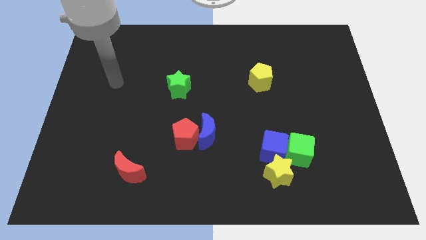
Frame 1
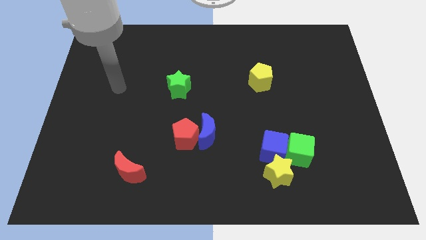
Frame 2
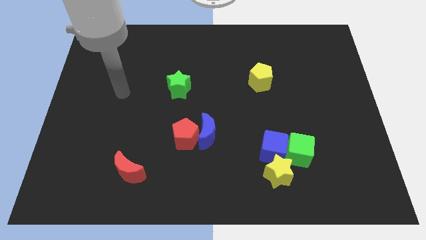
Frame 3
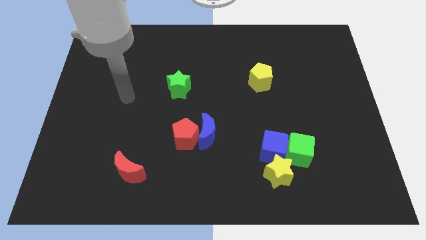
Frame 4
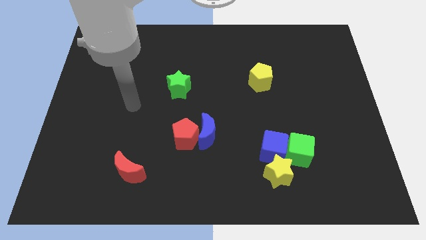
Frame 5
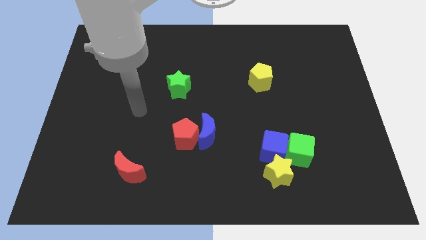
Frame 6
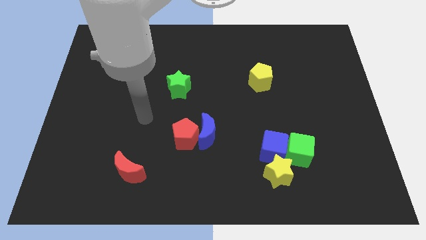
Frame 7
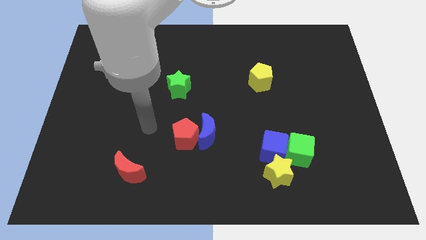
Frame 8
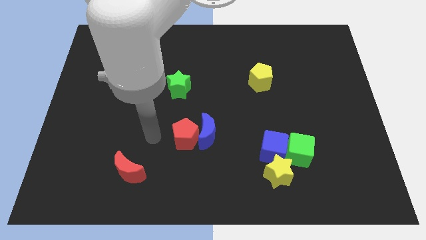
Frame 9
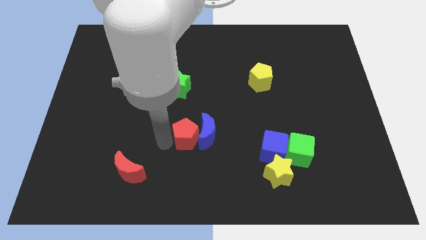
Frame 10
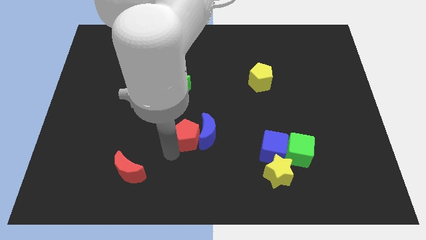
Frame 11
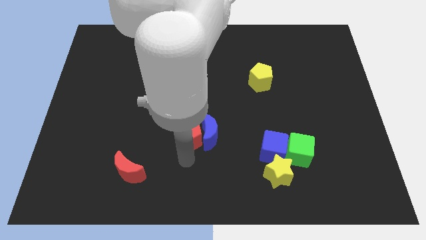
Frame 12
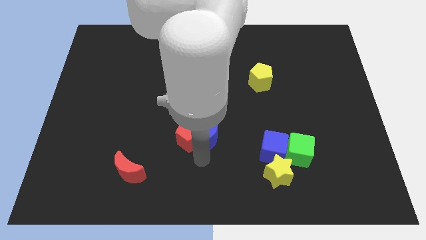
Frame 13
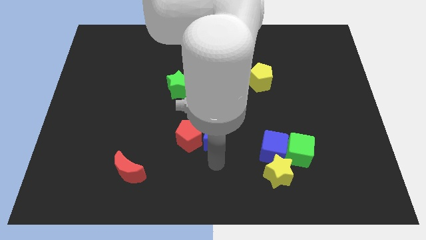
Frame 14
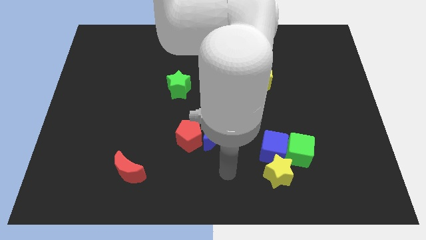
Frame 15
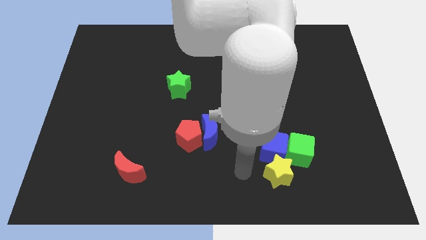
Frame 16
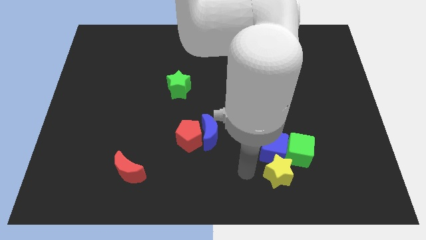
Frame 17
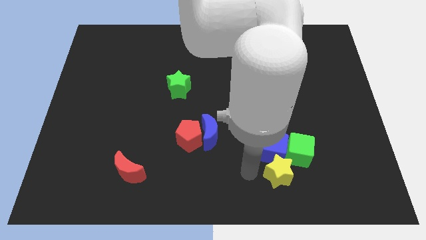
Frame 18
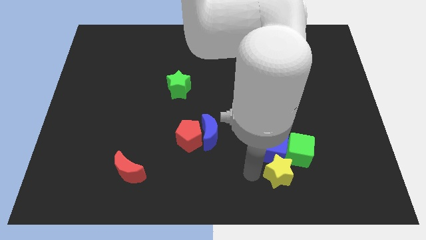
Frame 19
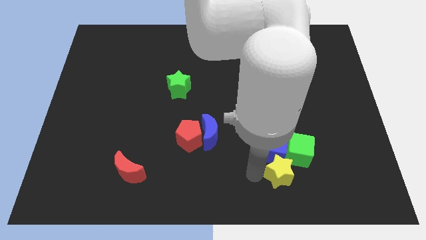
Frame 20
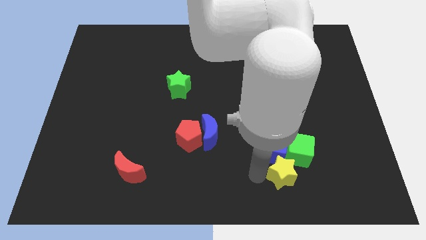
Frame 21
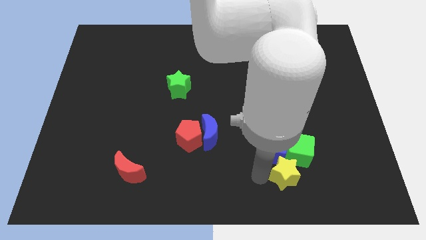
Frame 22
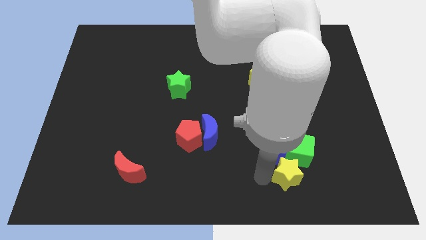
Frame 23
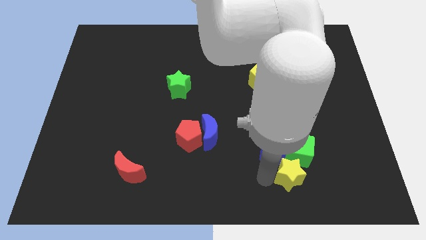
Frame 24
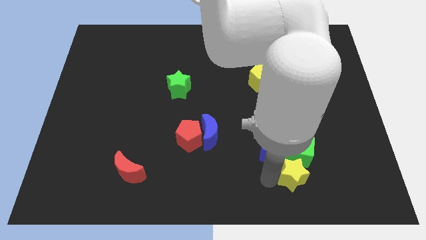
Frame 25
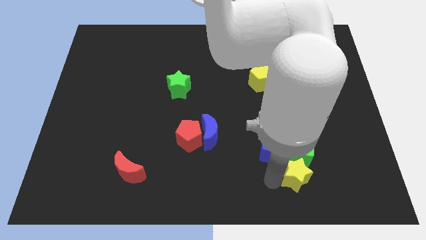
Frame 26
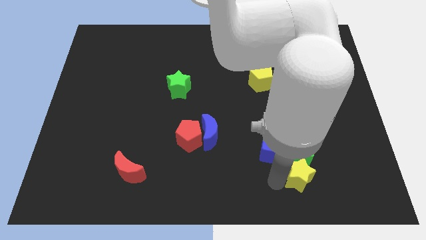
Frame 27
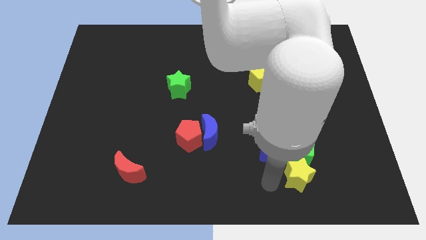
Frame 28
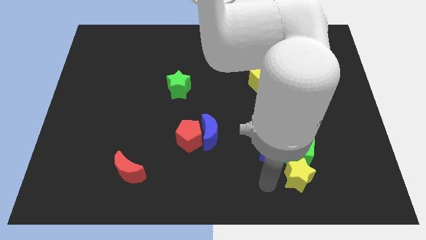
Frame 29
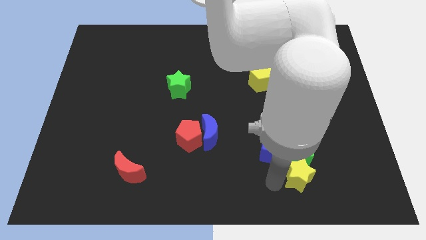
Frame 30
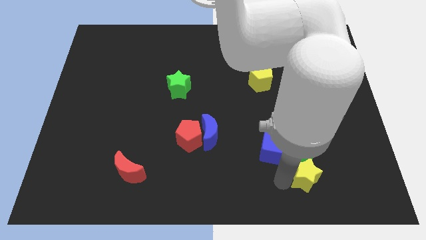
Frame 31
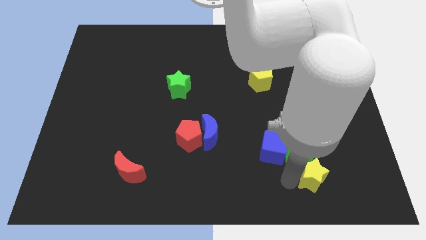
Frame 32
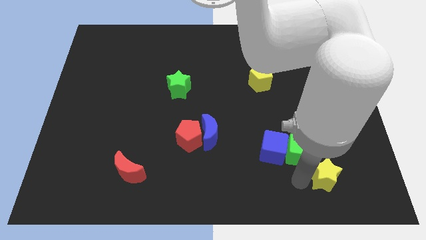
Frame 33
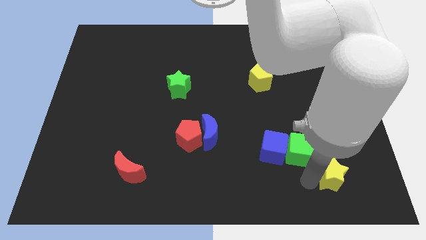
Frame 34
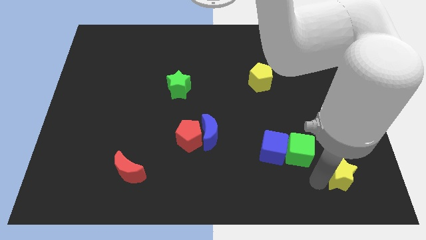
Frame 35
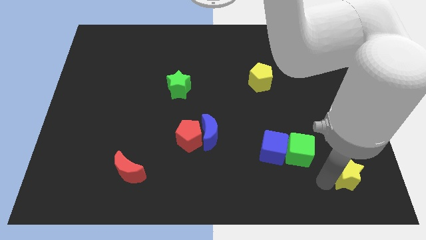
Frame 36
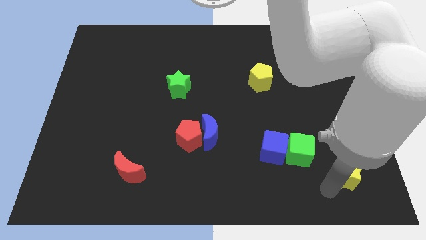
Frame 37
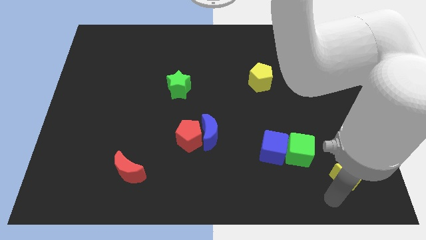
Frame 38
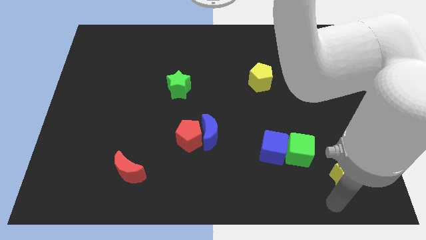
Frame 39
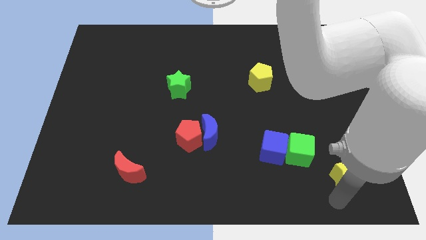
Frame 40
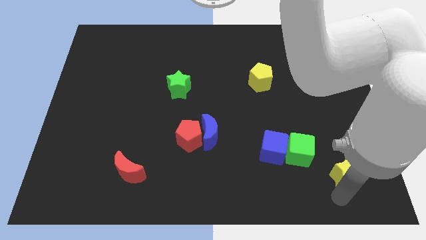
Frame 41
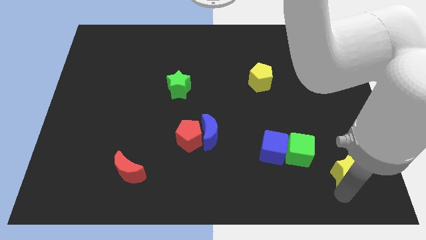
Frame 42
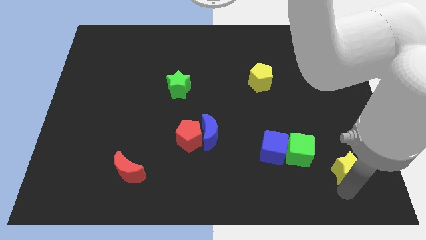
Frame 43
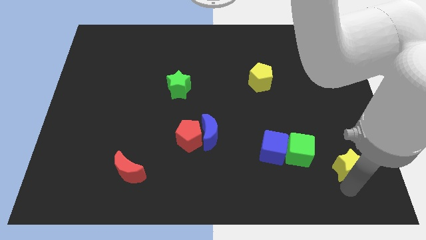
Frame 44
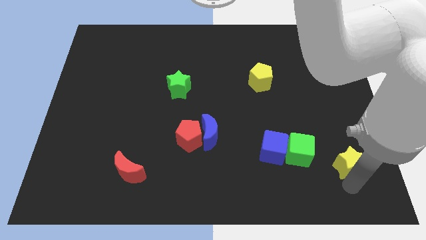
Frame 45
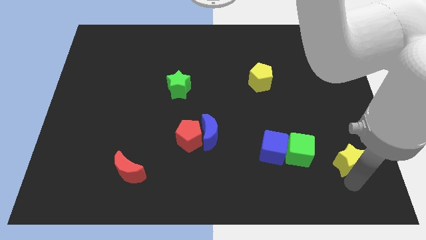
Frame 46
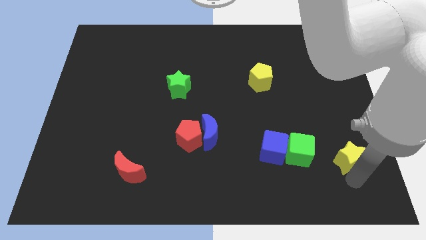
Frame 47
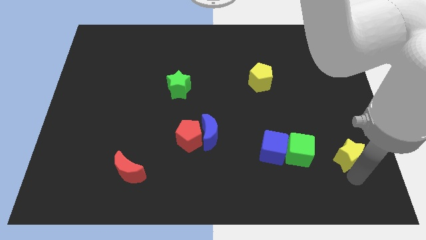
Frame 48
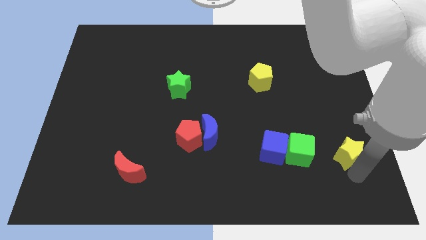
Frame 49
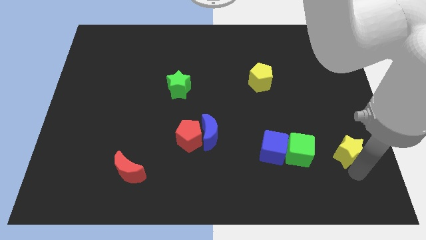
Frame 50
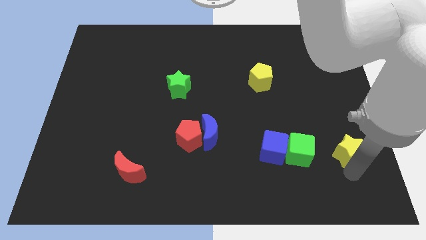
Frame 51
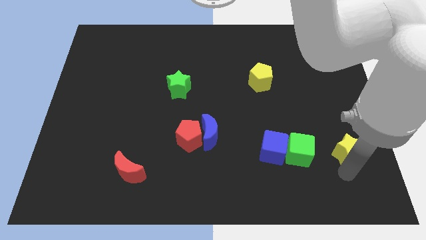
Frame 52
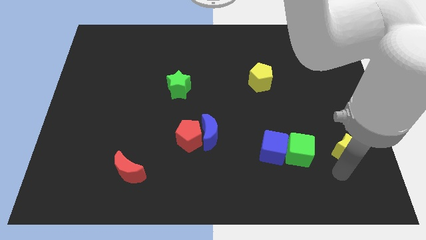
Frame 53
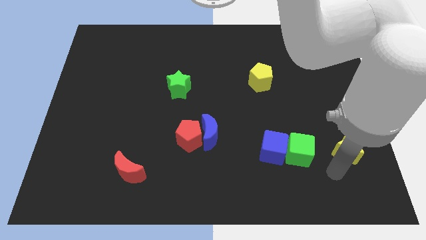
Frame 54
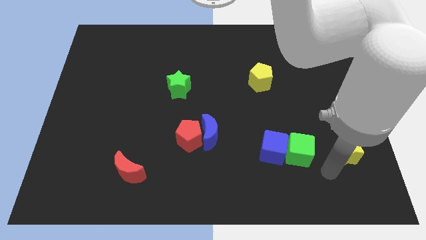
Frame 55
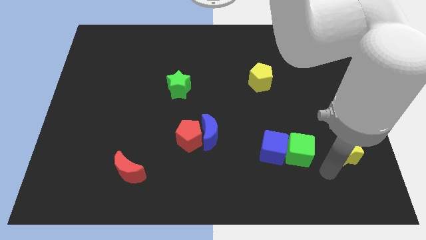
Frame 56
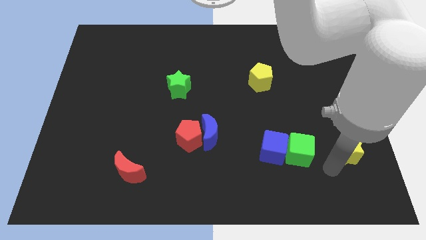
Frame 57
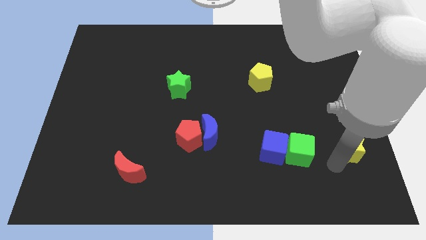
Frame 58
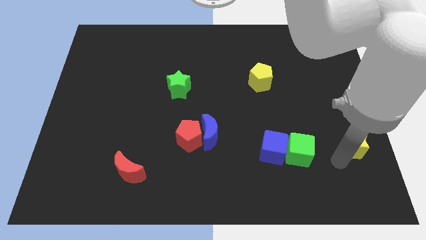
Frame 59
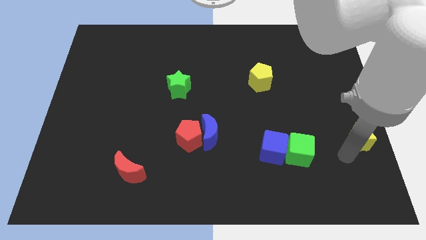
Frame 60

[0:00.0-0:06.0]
push the yellow star to the right side

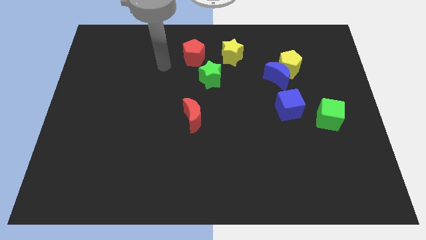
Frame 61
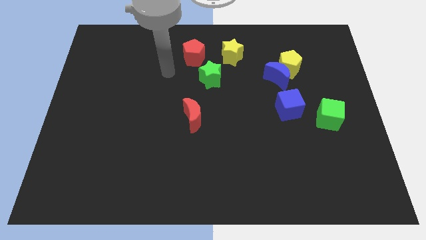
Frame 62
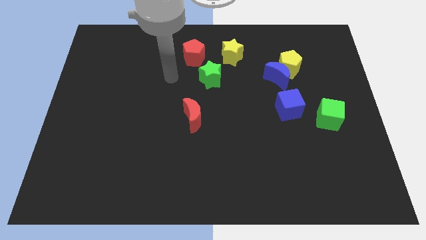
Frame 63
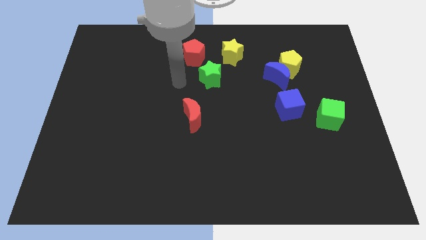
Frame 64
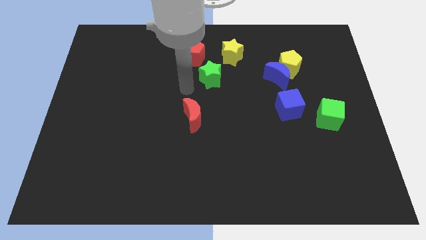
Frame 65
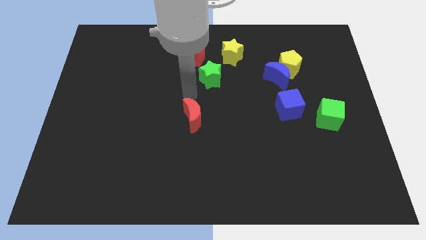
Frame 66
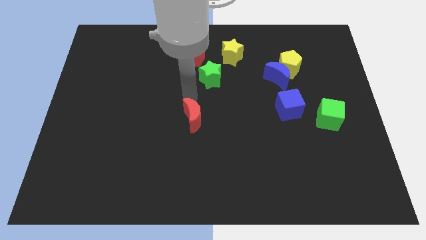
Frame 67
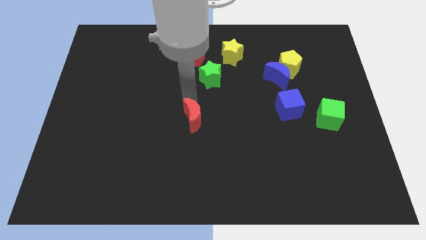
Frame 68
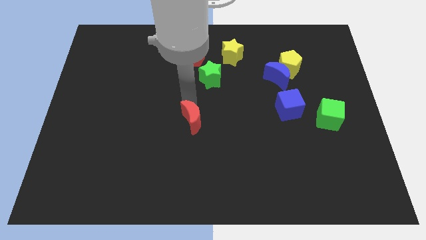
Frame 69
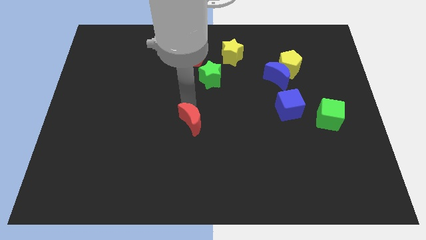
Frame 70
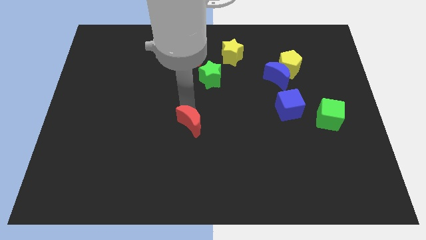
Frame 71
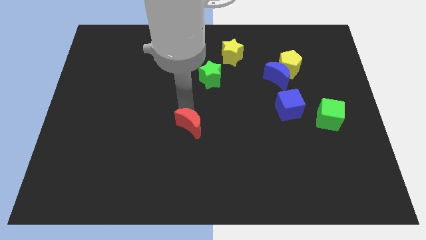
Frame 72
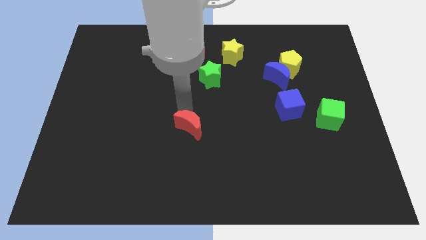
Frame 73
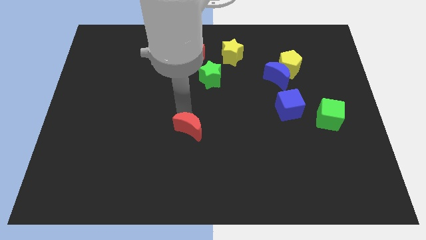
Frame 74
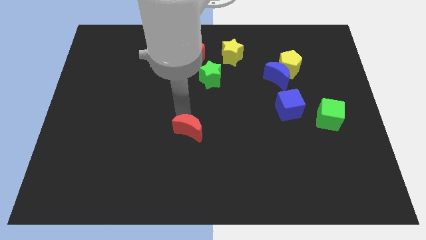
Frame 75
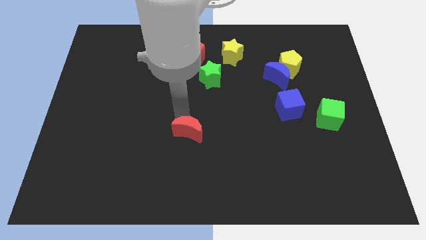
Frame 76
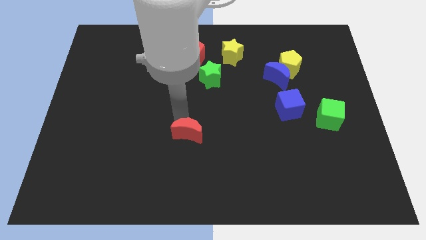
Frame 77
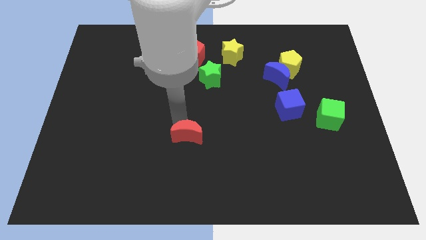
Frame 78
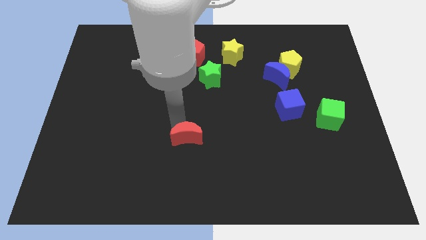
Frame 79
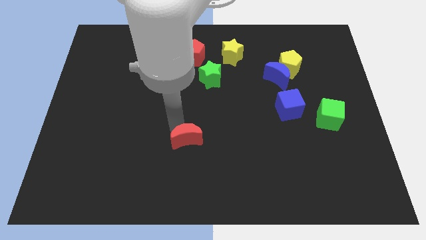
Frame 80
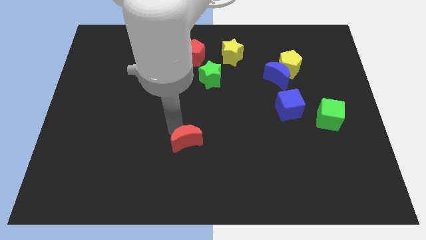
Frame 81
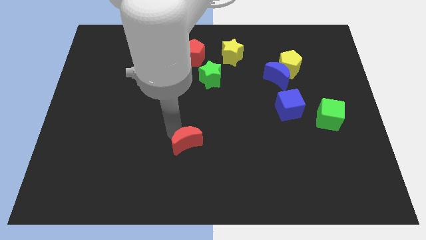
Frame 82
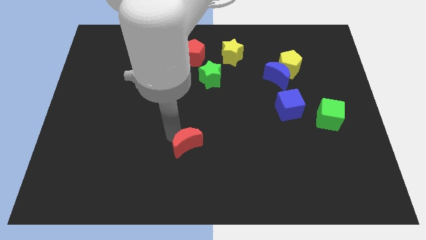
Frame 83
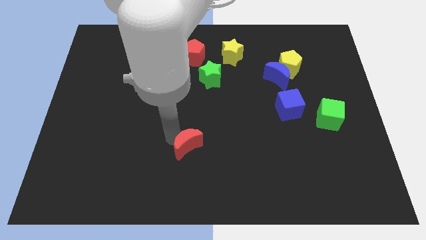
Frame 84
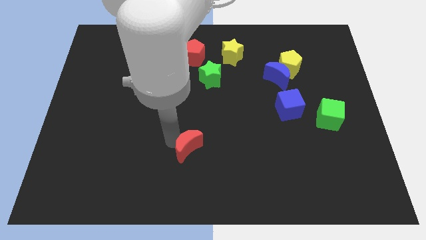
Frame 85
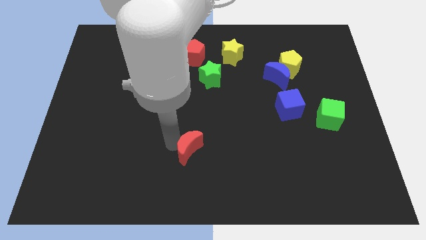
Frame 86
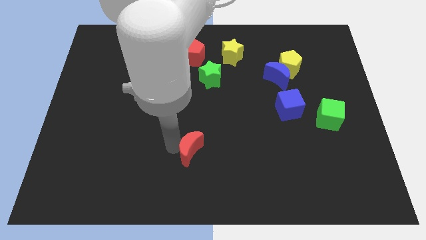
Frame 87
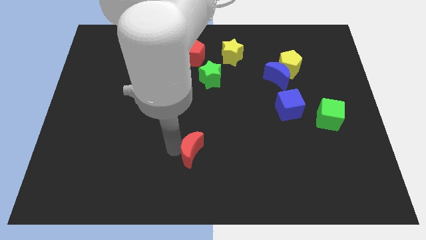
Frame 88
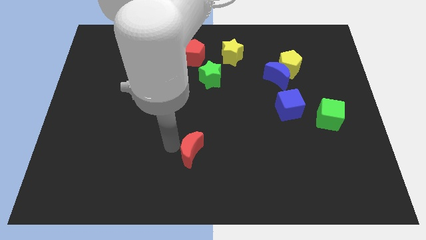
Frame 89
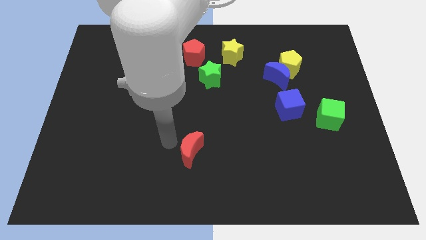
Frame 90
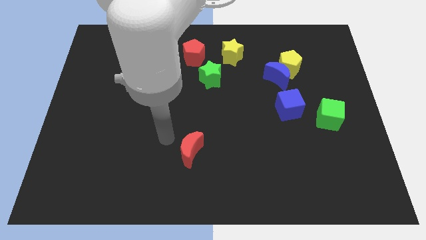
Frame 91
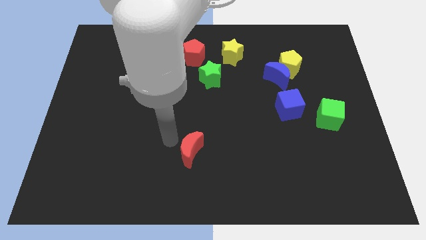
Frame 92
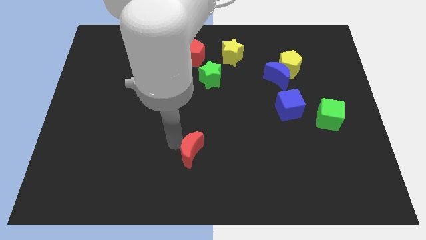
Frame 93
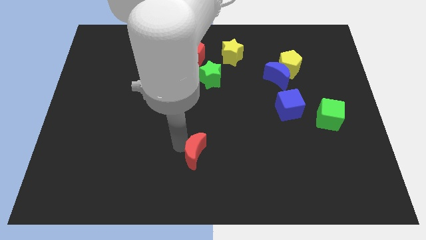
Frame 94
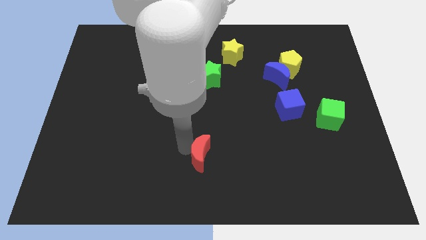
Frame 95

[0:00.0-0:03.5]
push the red moon to the bottom
